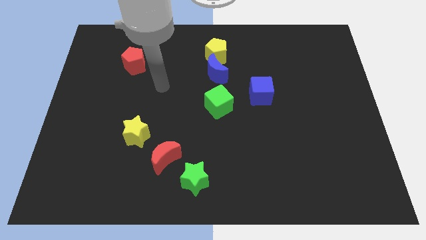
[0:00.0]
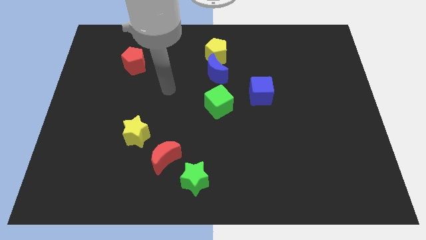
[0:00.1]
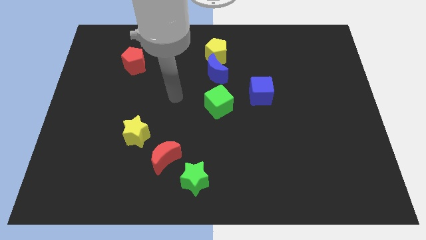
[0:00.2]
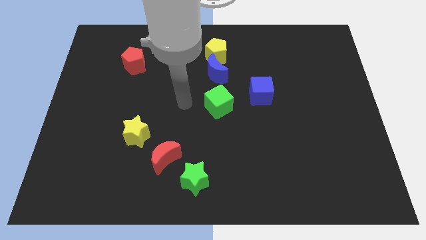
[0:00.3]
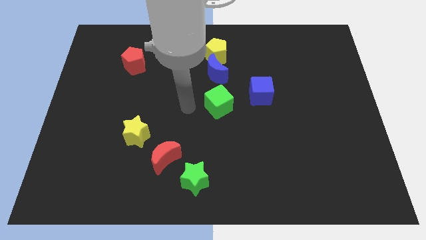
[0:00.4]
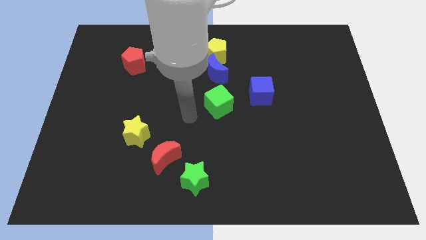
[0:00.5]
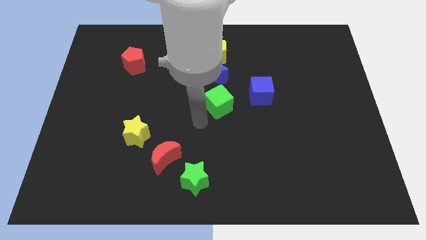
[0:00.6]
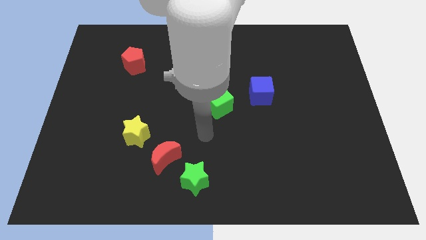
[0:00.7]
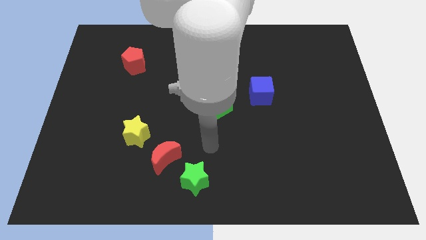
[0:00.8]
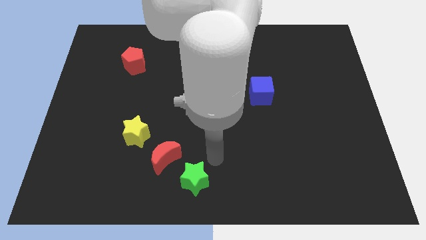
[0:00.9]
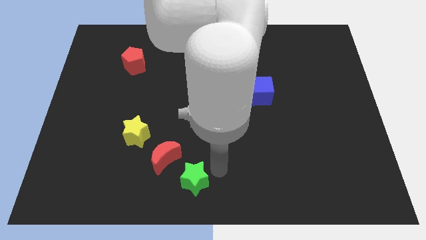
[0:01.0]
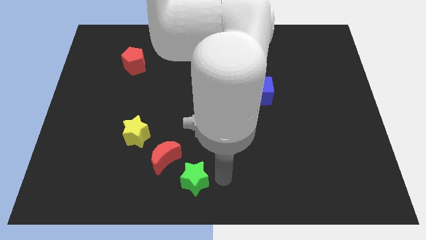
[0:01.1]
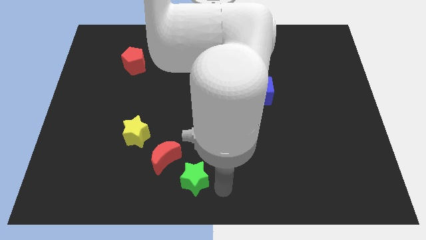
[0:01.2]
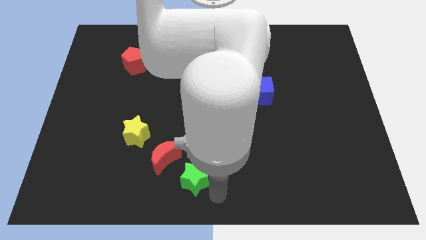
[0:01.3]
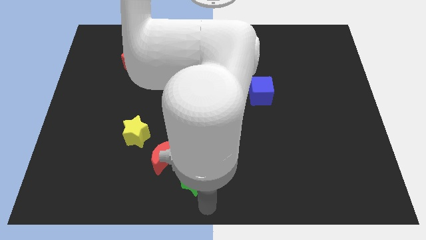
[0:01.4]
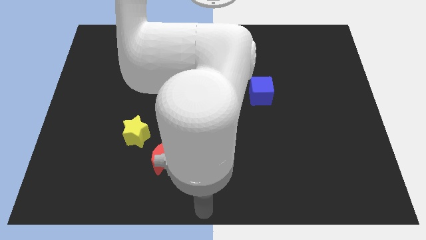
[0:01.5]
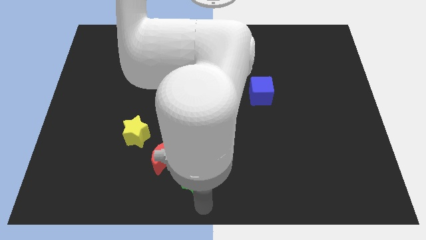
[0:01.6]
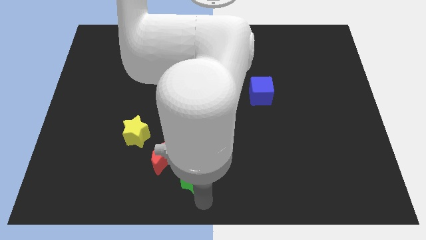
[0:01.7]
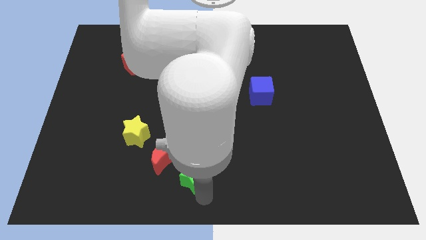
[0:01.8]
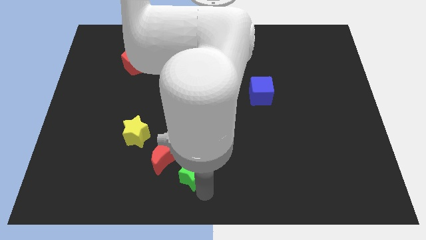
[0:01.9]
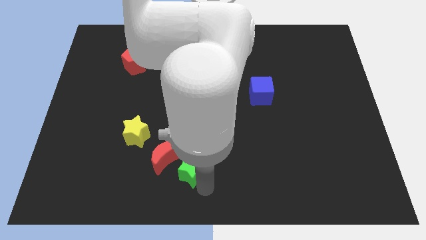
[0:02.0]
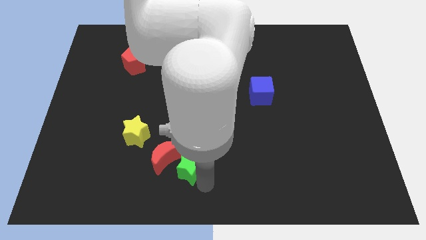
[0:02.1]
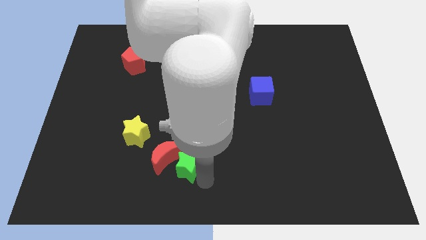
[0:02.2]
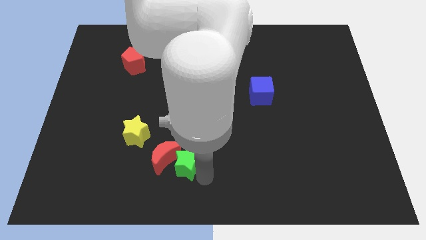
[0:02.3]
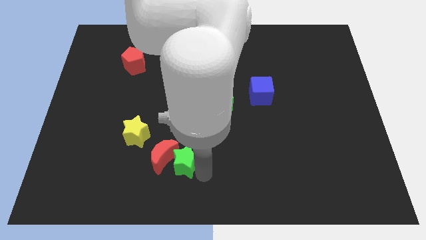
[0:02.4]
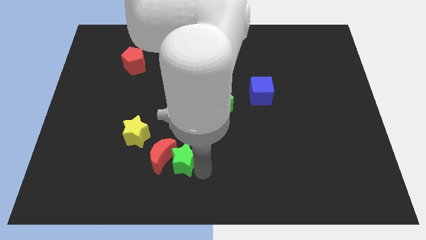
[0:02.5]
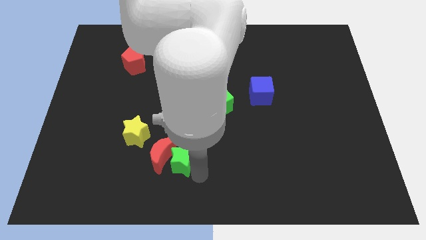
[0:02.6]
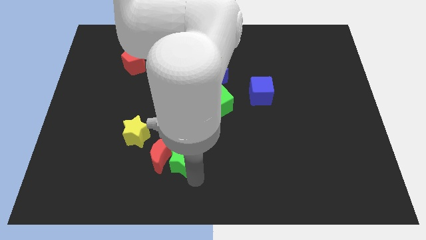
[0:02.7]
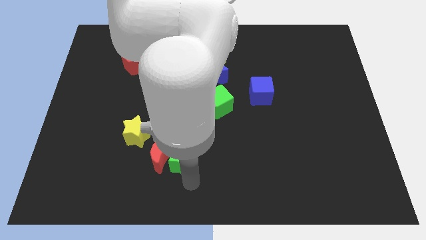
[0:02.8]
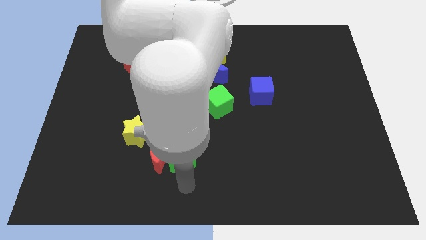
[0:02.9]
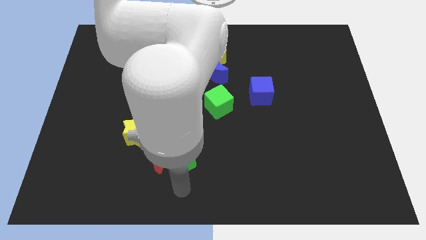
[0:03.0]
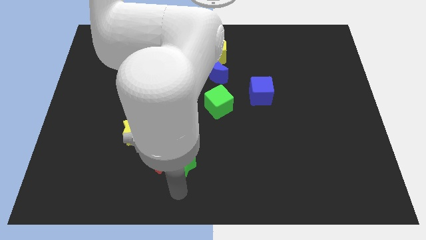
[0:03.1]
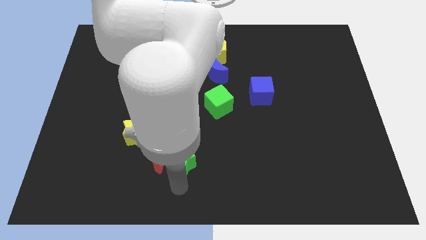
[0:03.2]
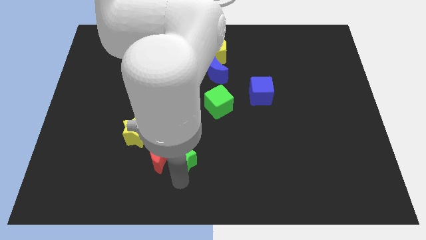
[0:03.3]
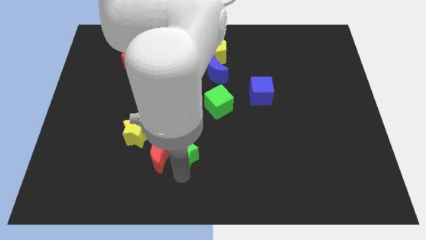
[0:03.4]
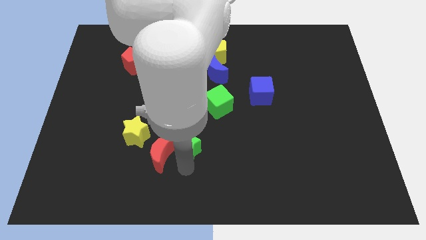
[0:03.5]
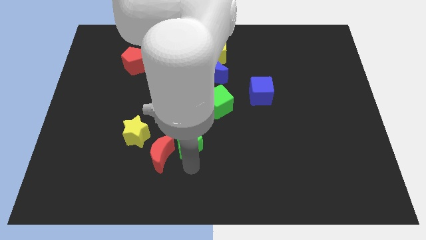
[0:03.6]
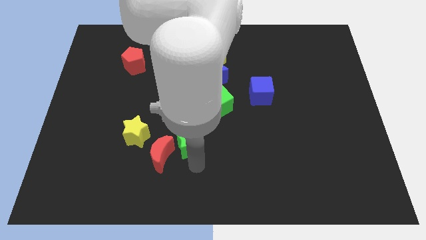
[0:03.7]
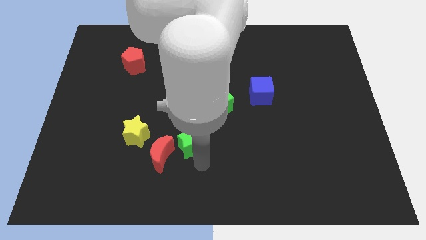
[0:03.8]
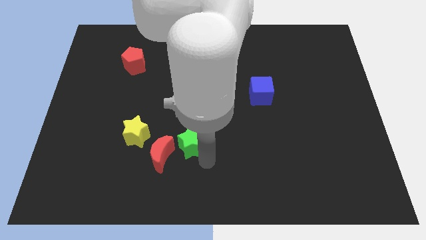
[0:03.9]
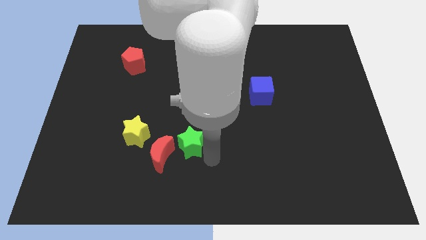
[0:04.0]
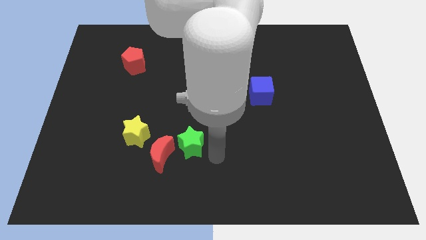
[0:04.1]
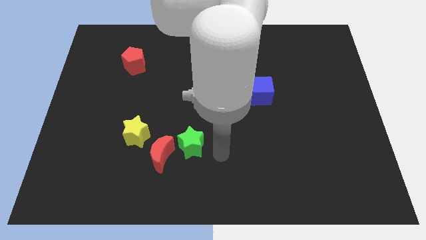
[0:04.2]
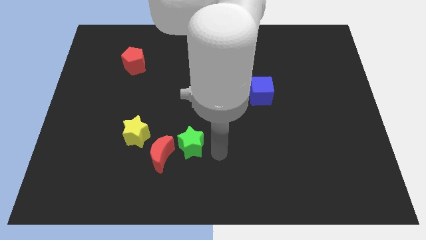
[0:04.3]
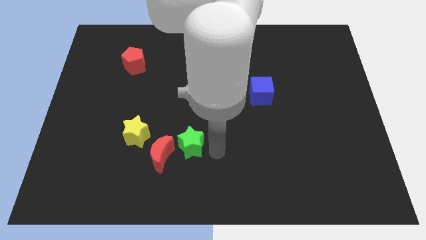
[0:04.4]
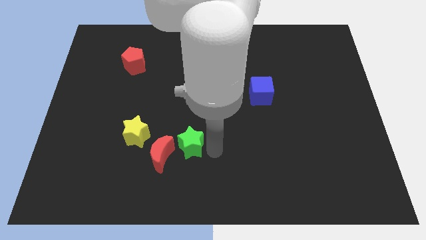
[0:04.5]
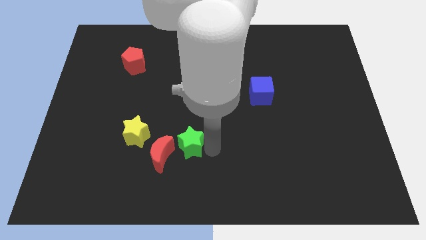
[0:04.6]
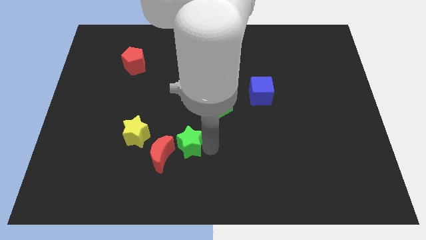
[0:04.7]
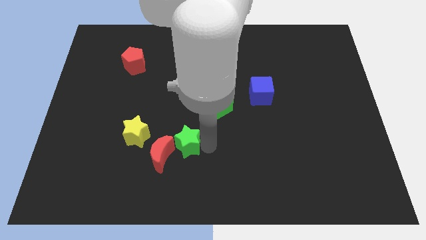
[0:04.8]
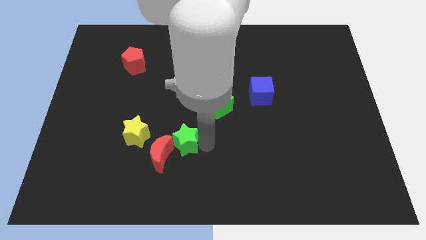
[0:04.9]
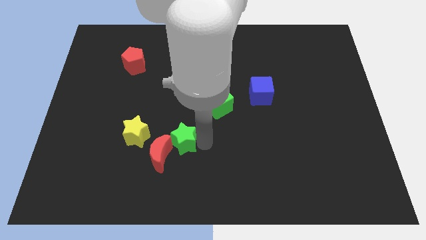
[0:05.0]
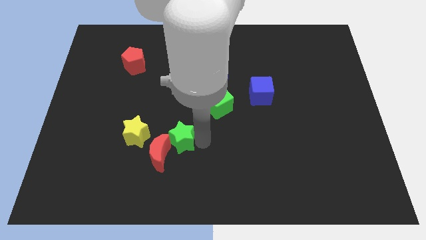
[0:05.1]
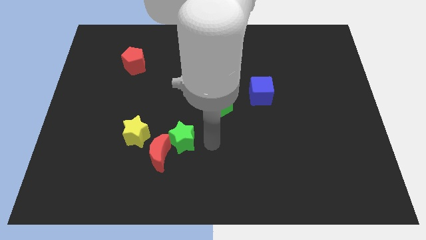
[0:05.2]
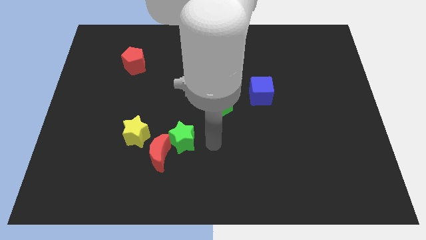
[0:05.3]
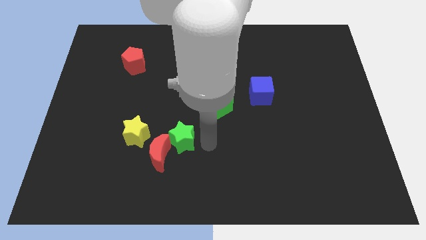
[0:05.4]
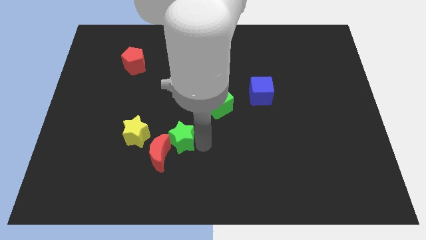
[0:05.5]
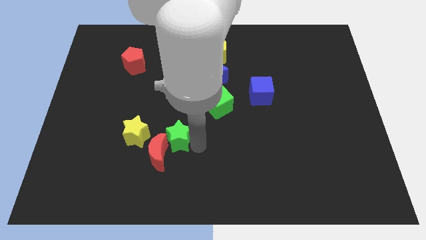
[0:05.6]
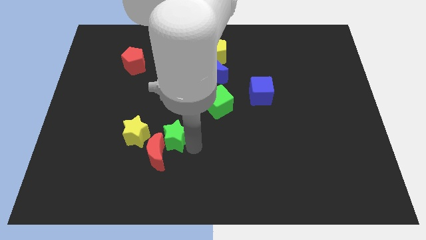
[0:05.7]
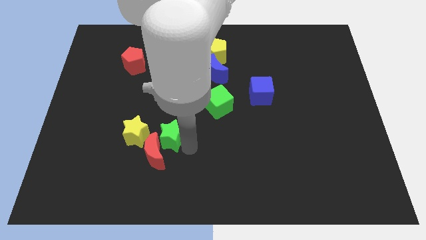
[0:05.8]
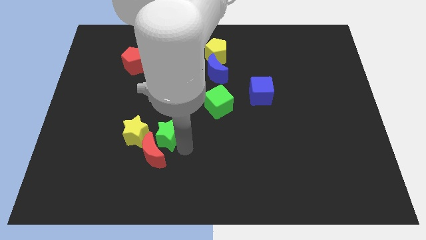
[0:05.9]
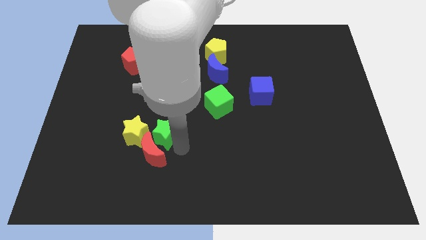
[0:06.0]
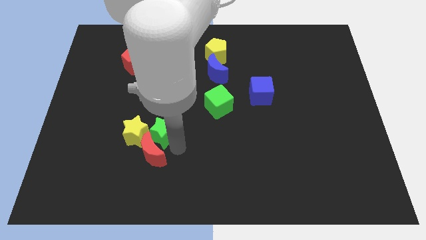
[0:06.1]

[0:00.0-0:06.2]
push the green star towards the yellow star
